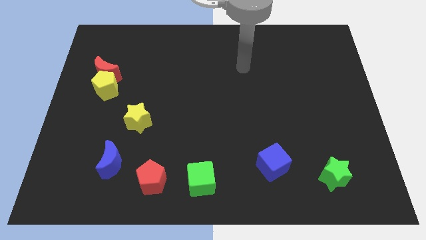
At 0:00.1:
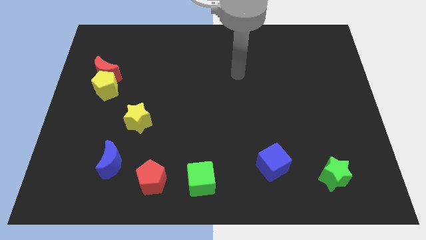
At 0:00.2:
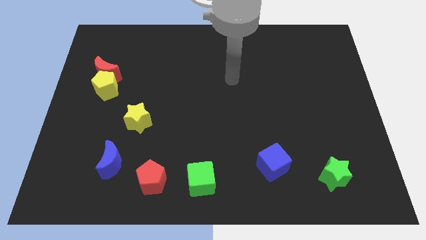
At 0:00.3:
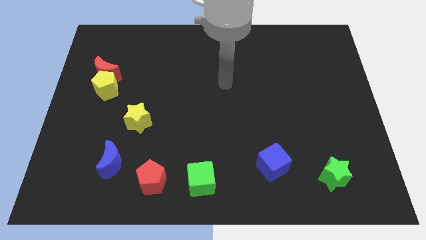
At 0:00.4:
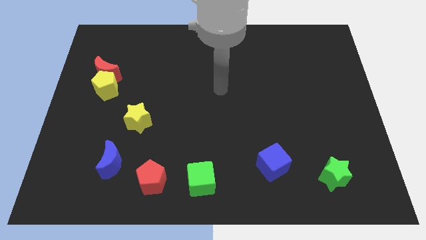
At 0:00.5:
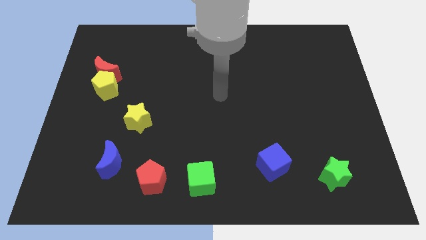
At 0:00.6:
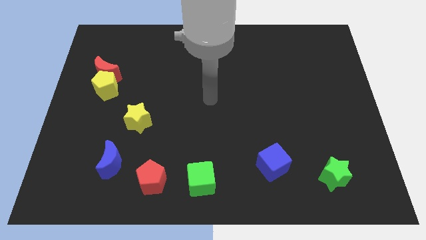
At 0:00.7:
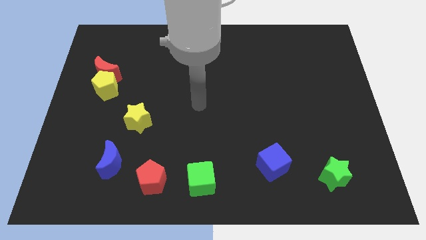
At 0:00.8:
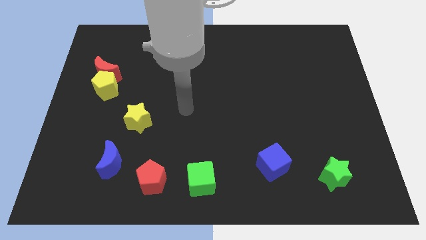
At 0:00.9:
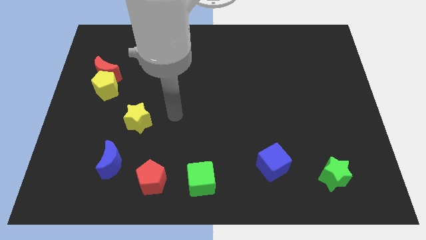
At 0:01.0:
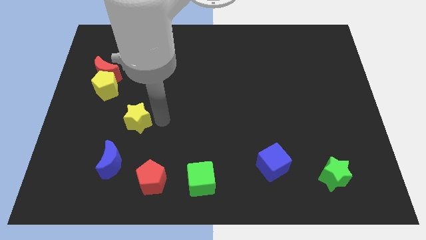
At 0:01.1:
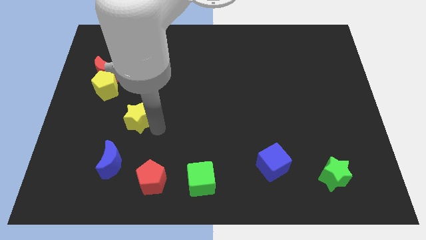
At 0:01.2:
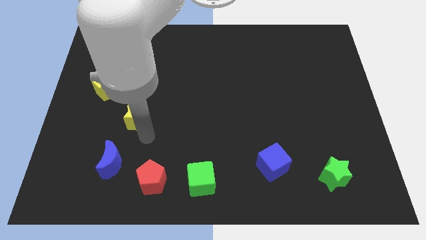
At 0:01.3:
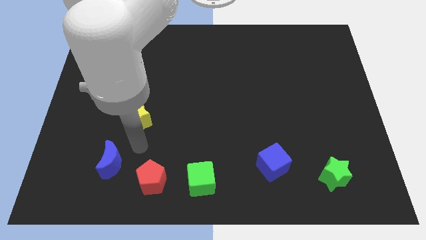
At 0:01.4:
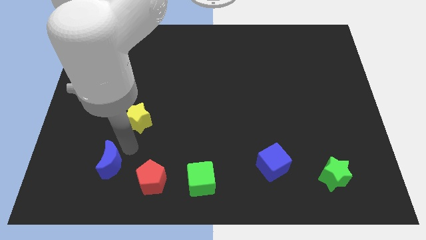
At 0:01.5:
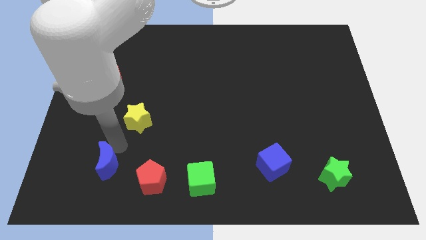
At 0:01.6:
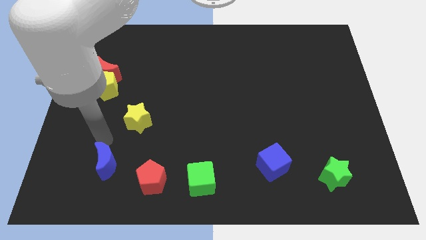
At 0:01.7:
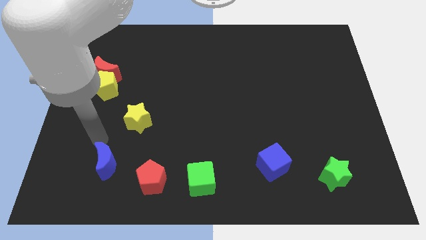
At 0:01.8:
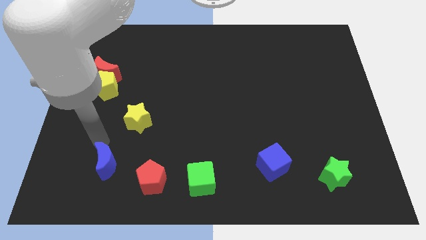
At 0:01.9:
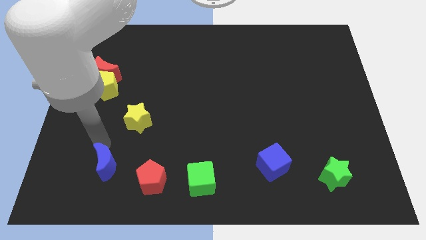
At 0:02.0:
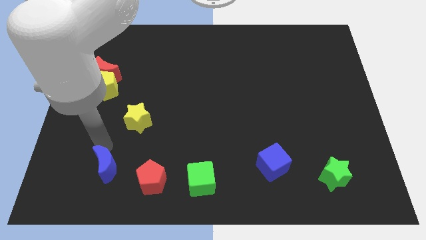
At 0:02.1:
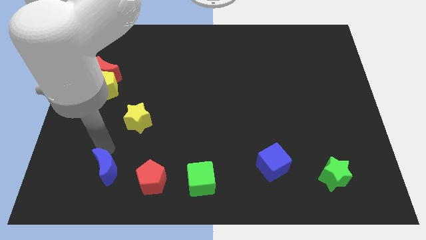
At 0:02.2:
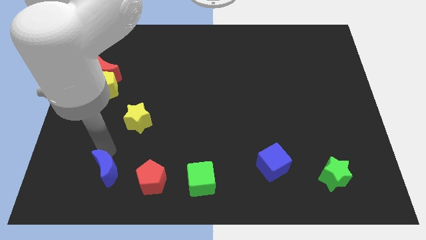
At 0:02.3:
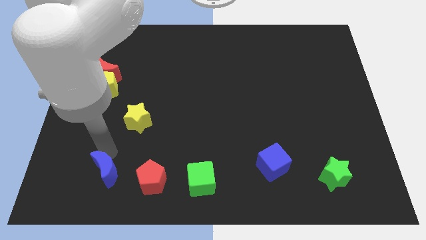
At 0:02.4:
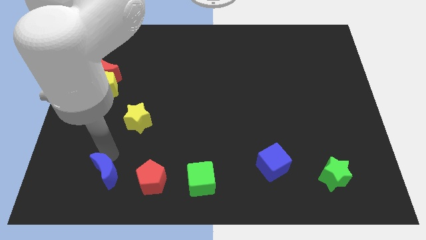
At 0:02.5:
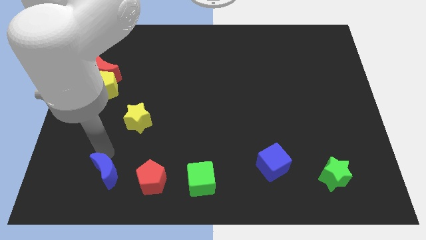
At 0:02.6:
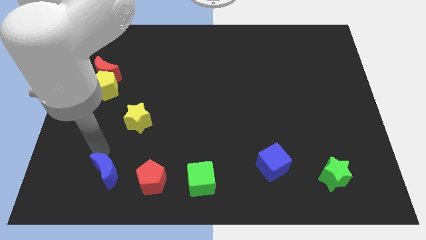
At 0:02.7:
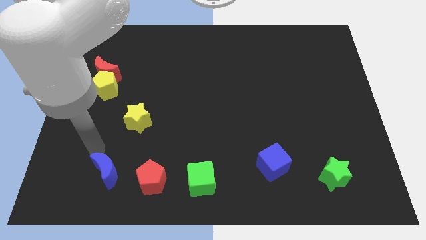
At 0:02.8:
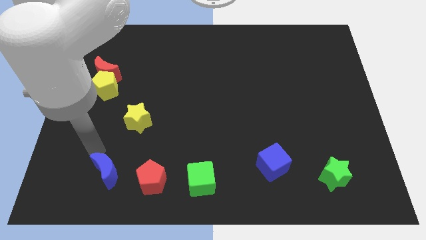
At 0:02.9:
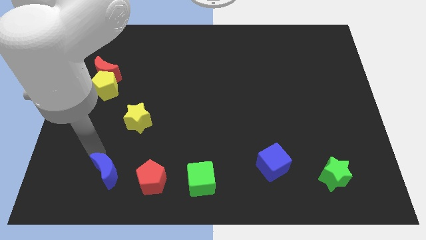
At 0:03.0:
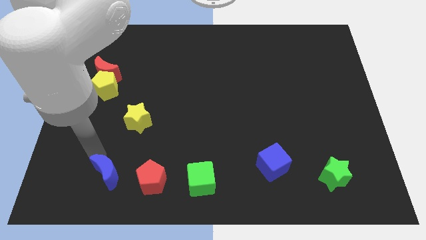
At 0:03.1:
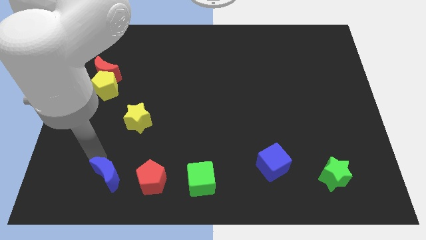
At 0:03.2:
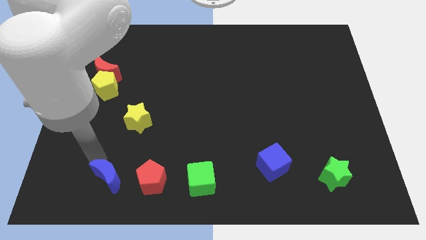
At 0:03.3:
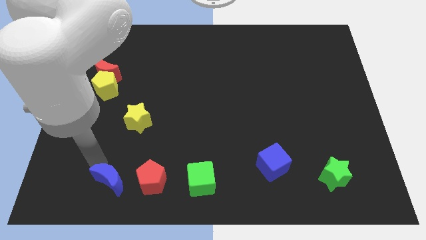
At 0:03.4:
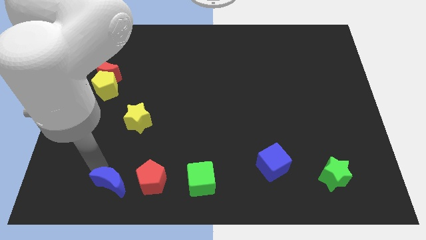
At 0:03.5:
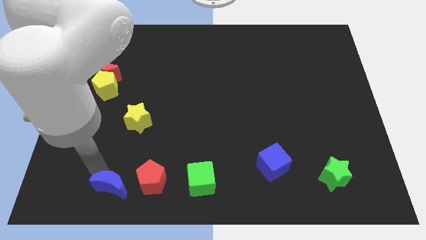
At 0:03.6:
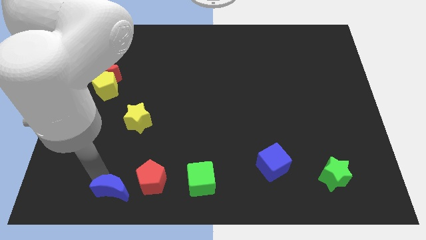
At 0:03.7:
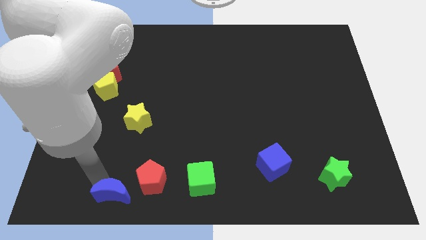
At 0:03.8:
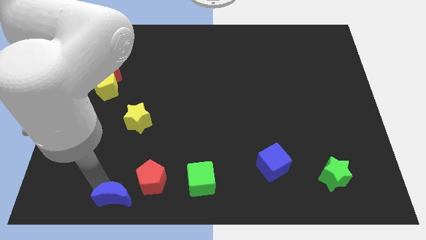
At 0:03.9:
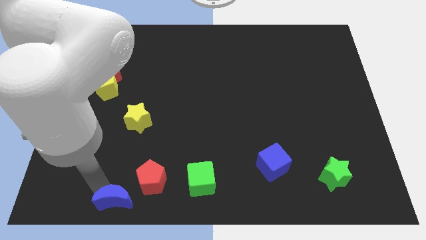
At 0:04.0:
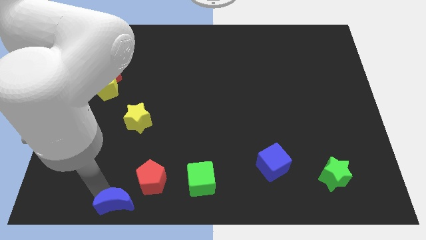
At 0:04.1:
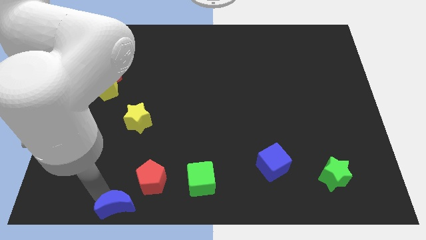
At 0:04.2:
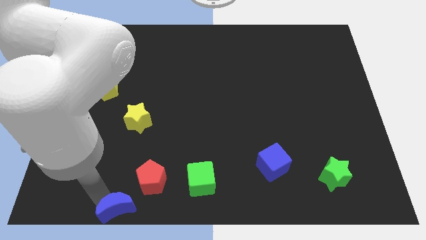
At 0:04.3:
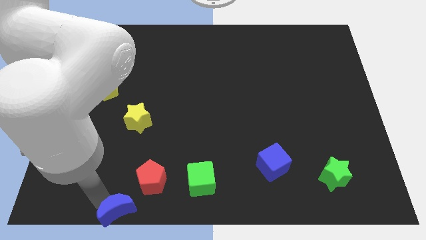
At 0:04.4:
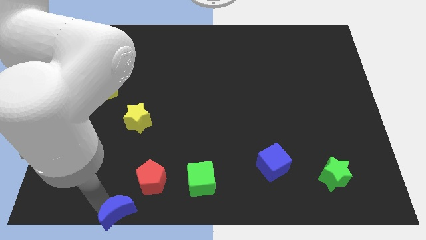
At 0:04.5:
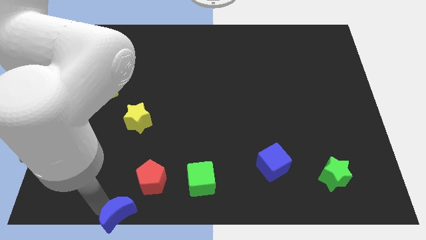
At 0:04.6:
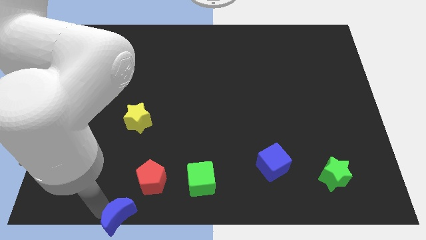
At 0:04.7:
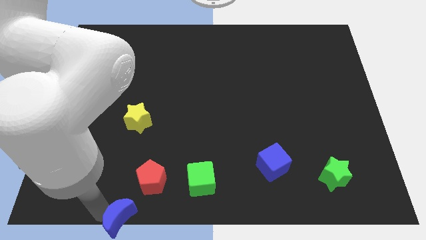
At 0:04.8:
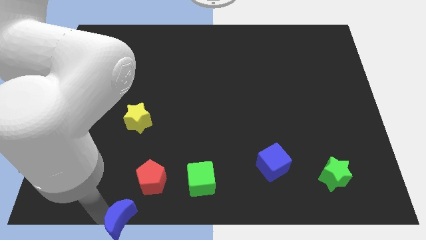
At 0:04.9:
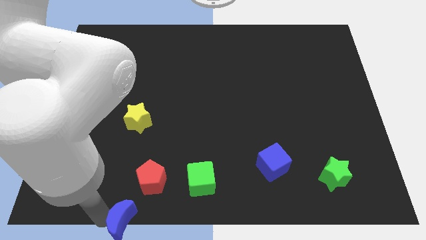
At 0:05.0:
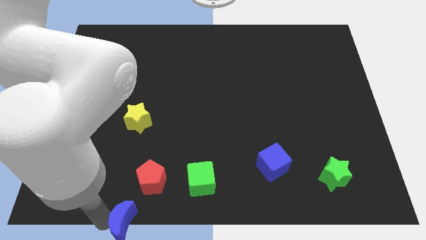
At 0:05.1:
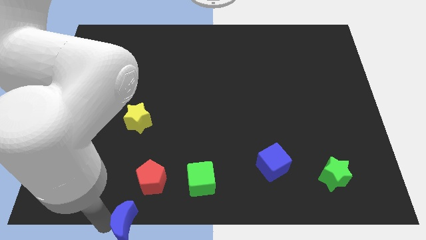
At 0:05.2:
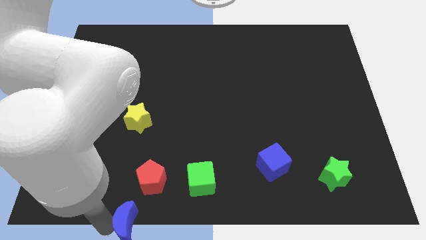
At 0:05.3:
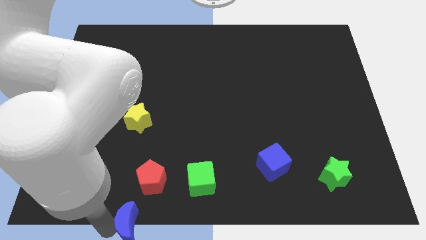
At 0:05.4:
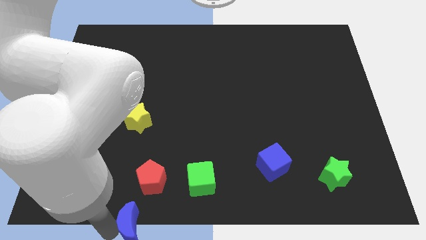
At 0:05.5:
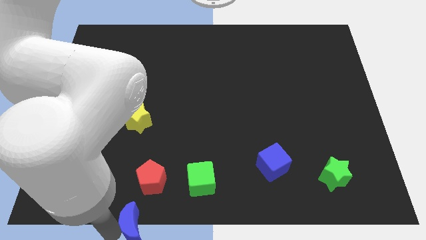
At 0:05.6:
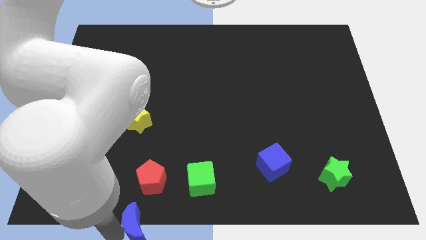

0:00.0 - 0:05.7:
push the blue moon to the bottom

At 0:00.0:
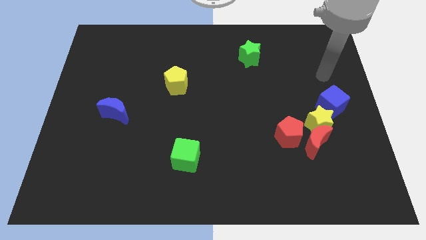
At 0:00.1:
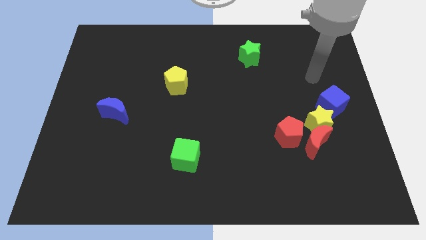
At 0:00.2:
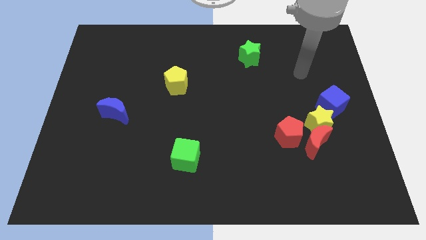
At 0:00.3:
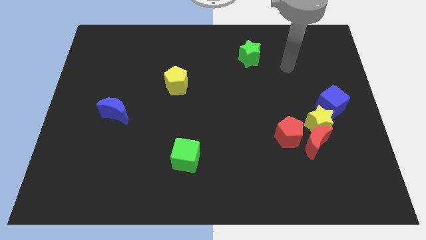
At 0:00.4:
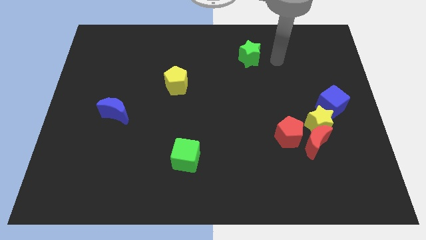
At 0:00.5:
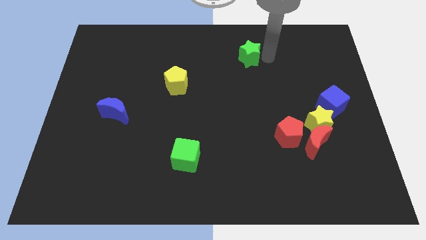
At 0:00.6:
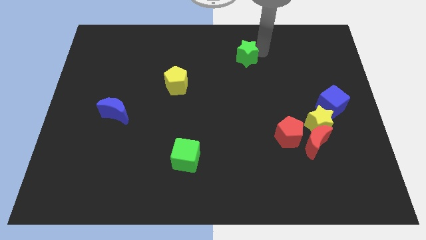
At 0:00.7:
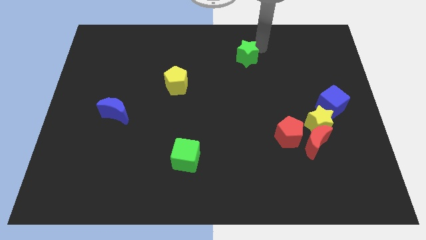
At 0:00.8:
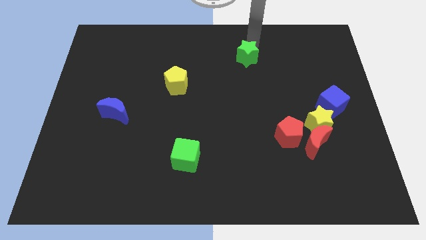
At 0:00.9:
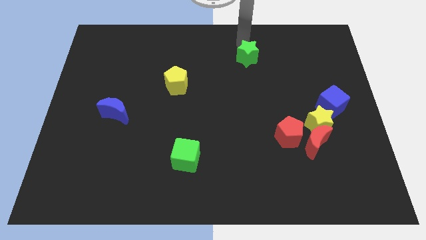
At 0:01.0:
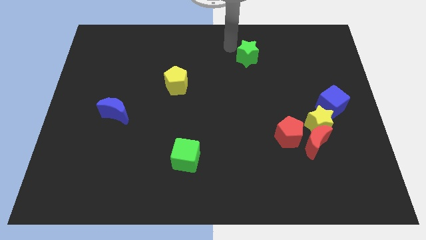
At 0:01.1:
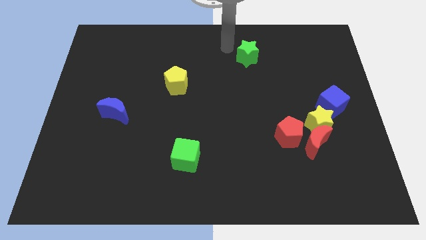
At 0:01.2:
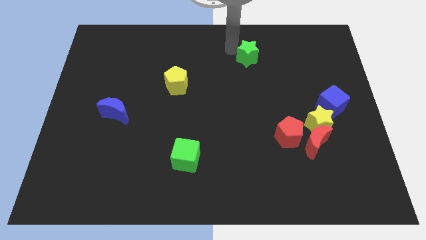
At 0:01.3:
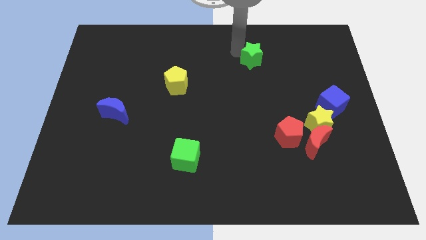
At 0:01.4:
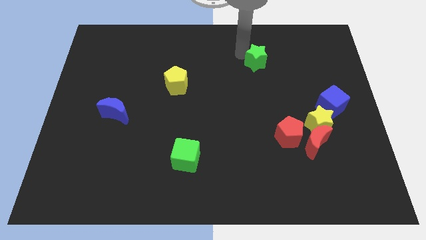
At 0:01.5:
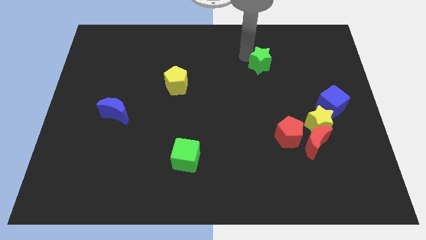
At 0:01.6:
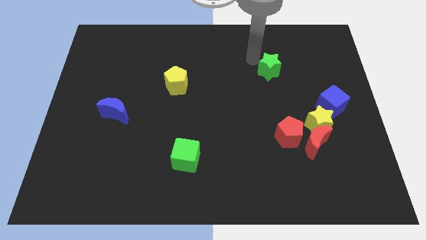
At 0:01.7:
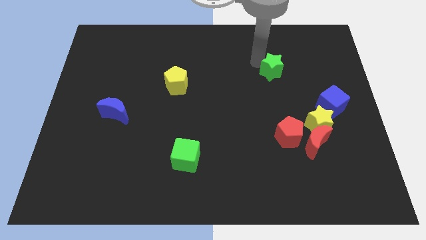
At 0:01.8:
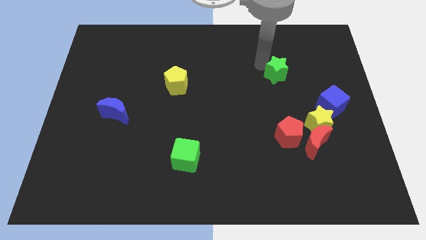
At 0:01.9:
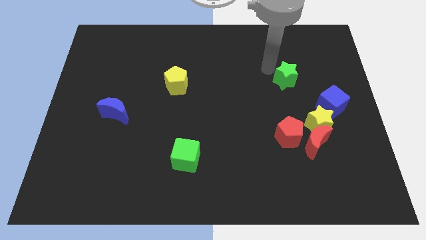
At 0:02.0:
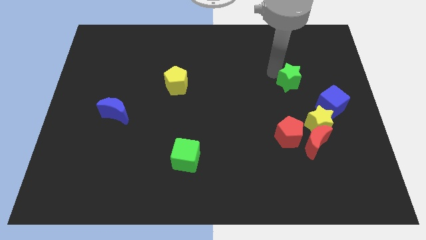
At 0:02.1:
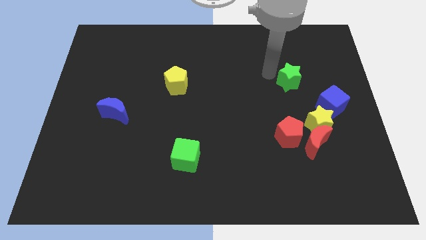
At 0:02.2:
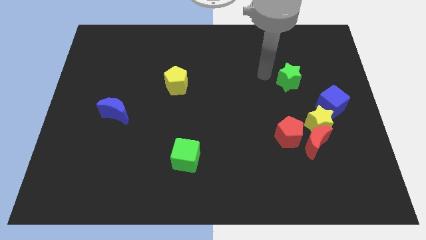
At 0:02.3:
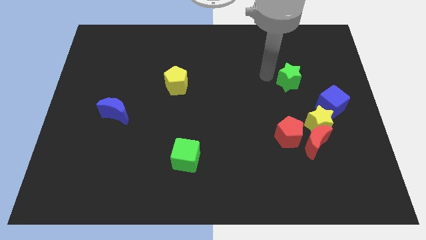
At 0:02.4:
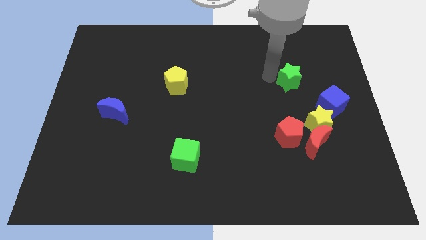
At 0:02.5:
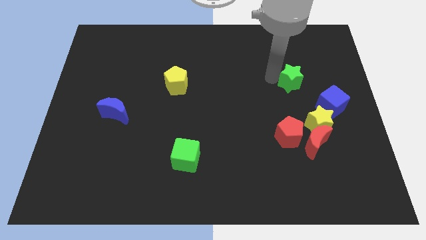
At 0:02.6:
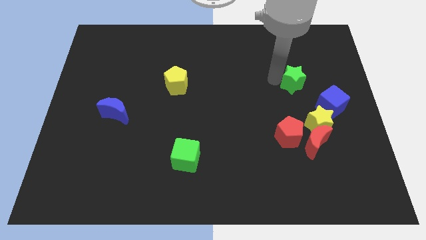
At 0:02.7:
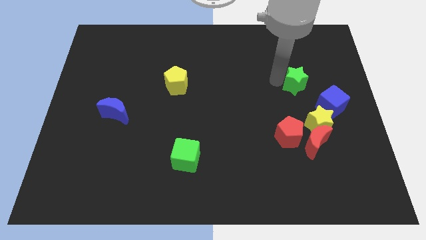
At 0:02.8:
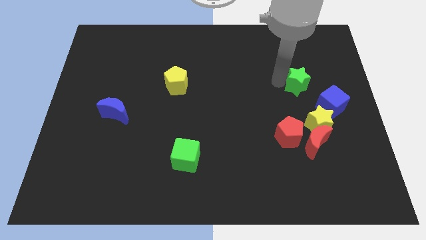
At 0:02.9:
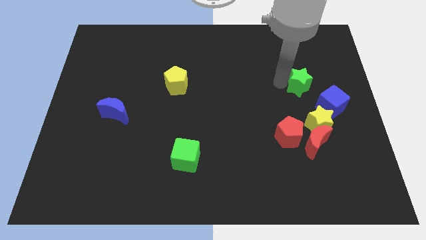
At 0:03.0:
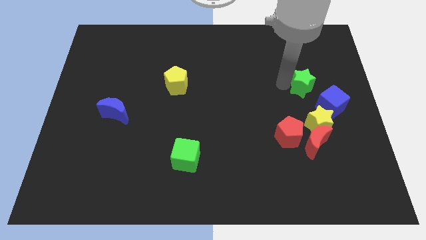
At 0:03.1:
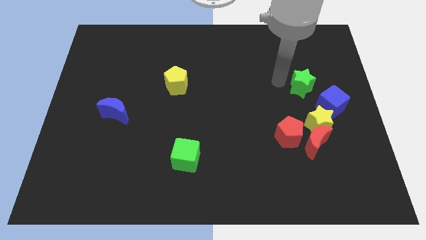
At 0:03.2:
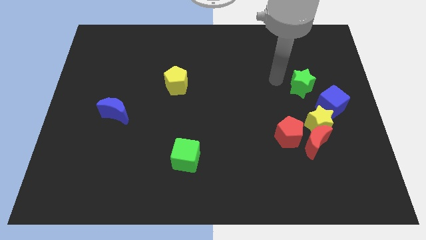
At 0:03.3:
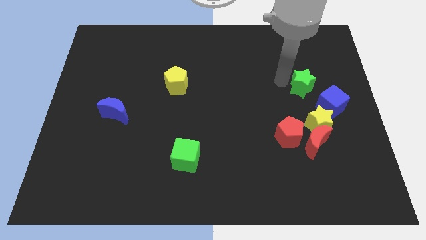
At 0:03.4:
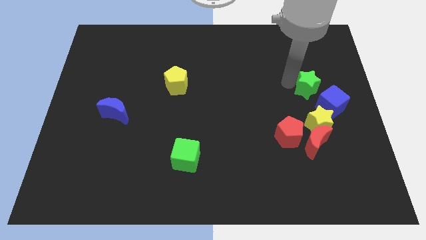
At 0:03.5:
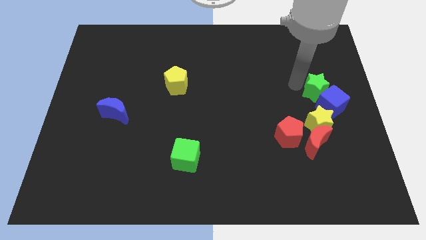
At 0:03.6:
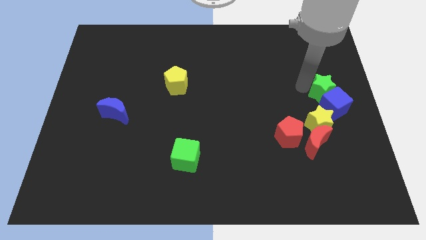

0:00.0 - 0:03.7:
push the green star to the right side
